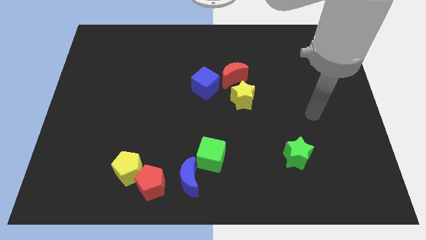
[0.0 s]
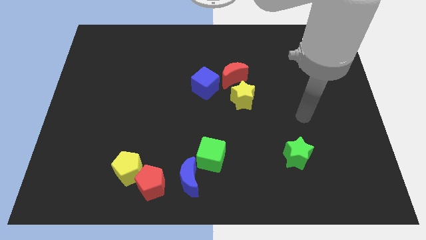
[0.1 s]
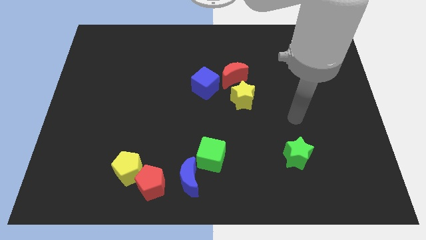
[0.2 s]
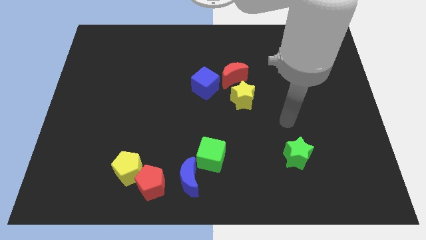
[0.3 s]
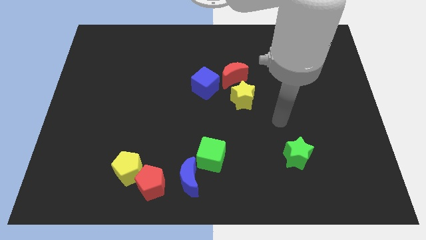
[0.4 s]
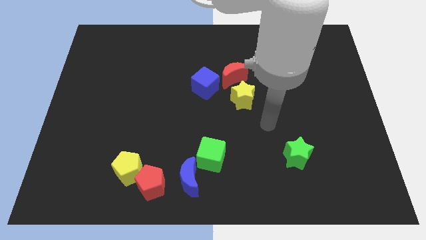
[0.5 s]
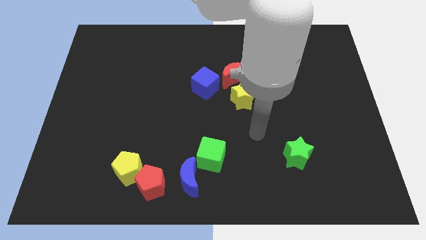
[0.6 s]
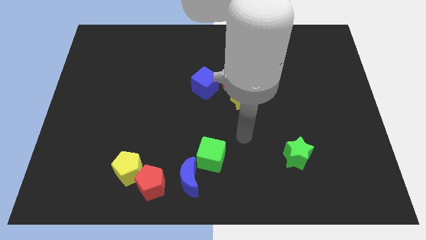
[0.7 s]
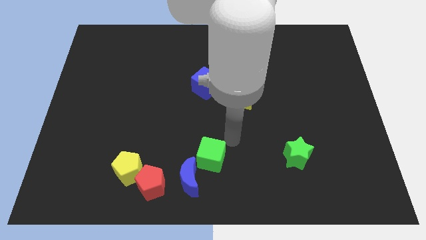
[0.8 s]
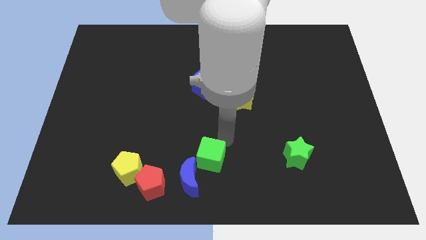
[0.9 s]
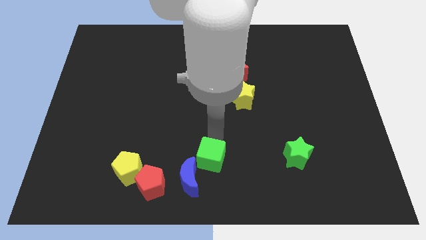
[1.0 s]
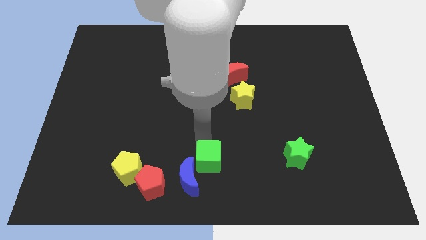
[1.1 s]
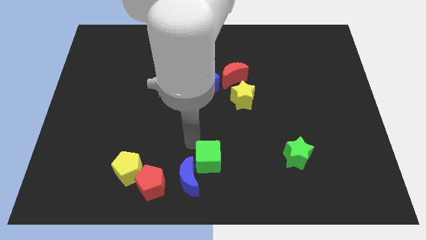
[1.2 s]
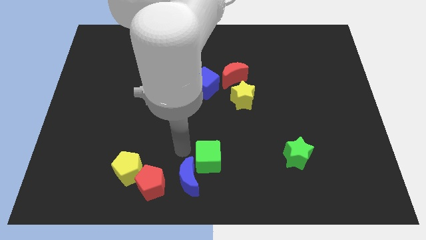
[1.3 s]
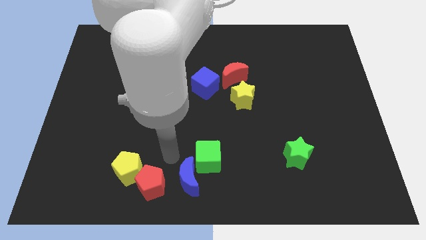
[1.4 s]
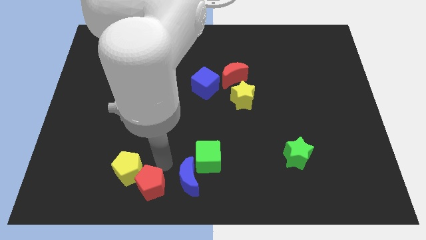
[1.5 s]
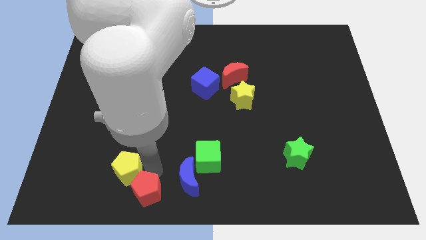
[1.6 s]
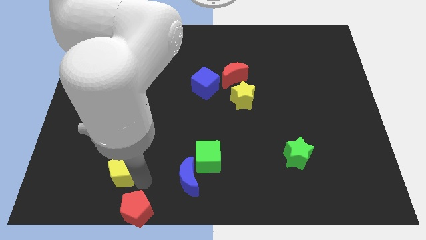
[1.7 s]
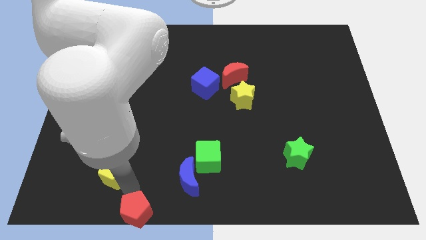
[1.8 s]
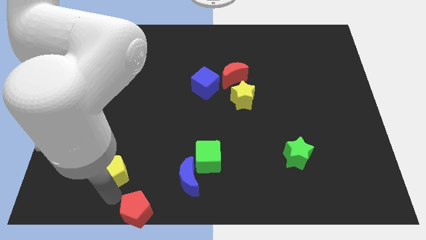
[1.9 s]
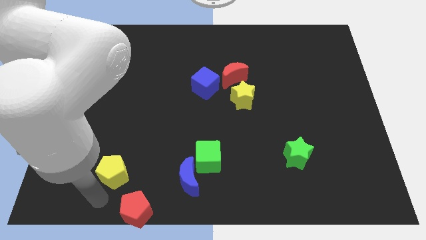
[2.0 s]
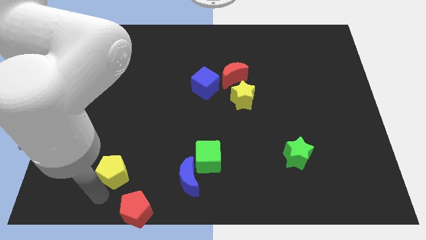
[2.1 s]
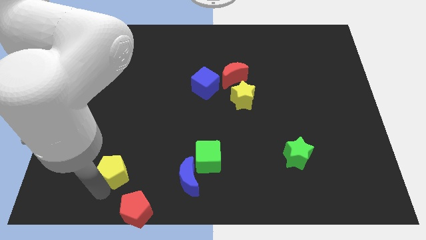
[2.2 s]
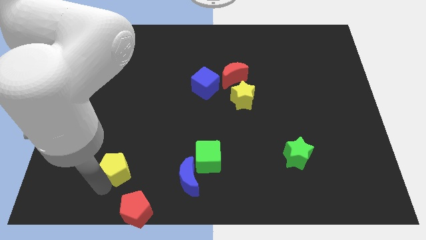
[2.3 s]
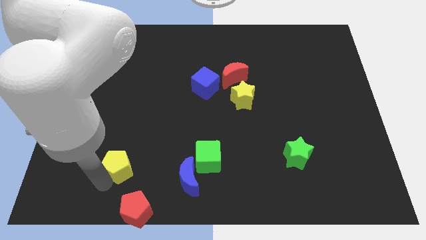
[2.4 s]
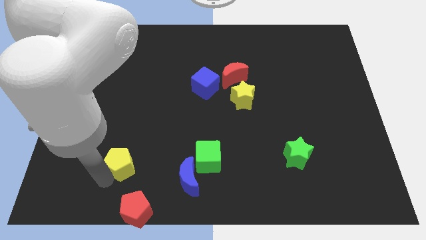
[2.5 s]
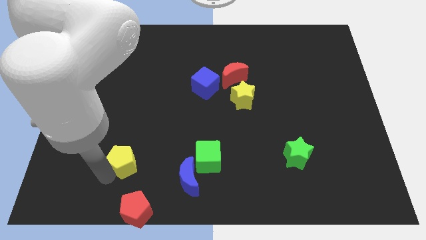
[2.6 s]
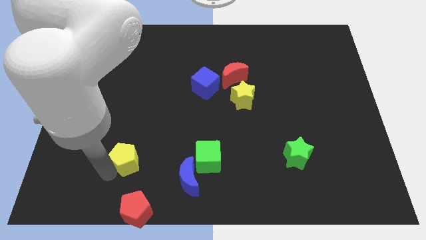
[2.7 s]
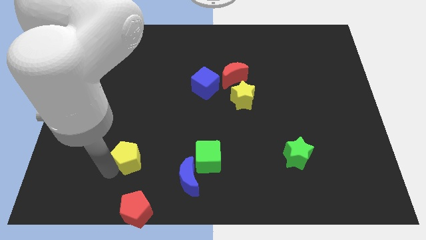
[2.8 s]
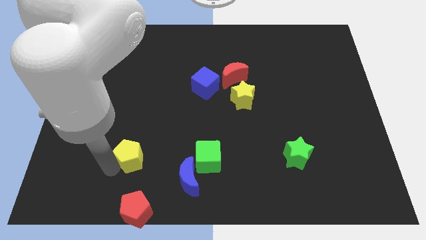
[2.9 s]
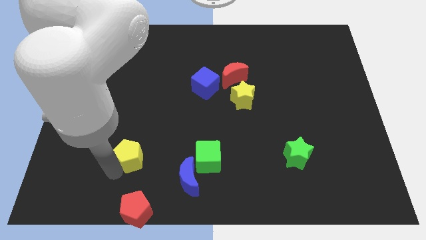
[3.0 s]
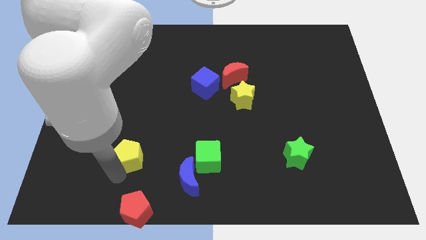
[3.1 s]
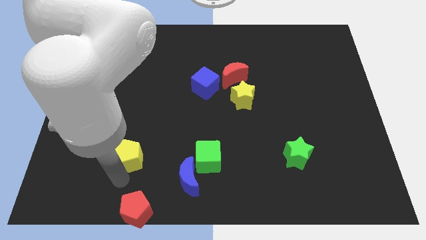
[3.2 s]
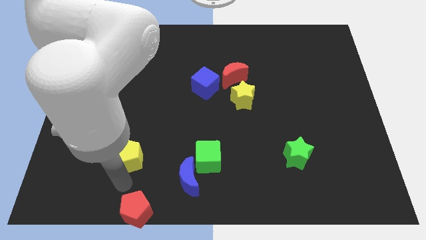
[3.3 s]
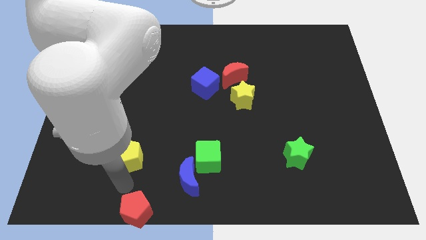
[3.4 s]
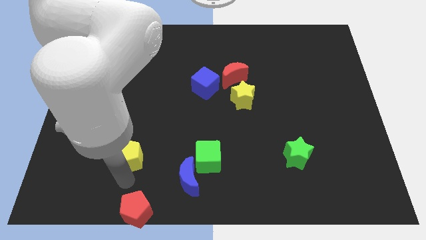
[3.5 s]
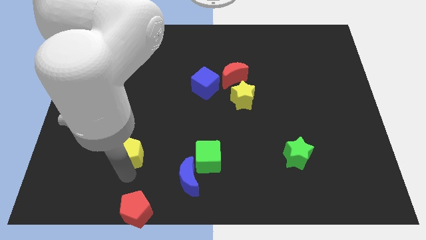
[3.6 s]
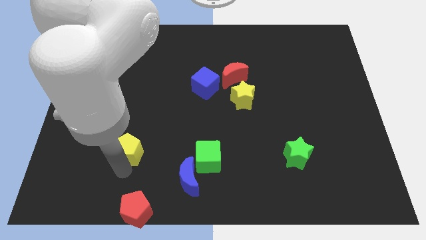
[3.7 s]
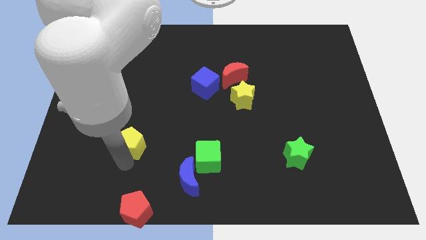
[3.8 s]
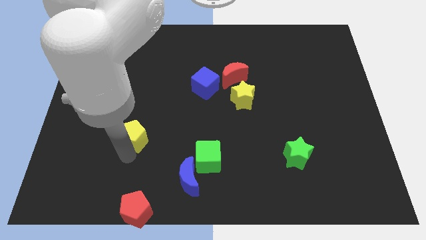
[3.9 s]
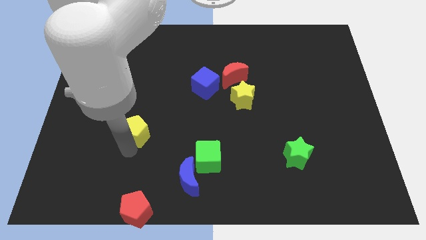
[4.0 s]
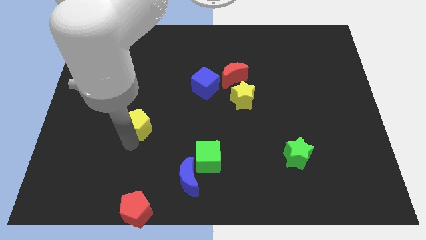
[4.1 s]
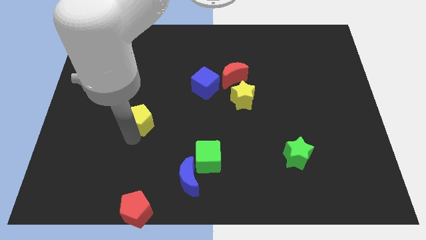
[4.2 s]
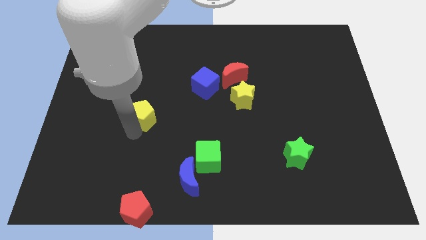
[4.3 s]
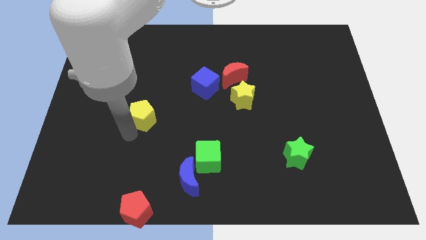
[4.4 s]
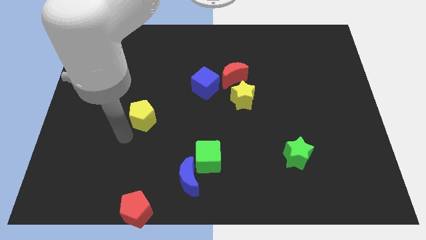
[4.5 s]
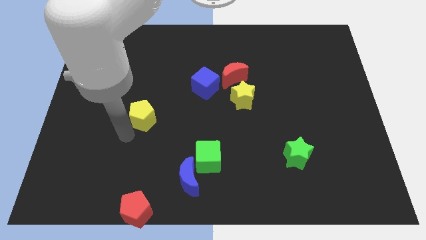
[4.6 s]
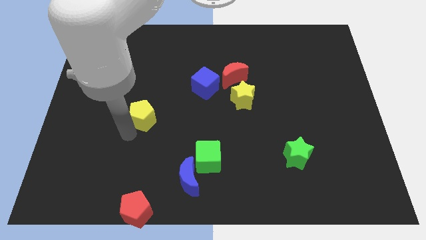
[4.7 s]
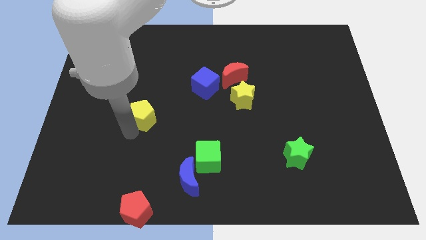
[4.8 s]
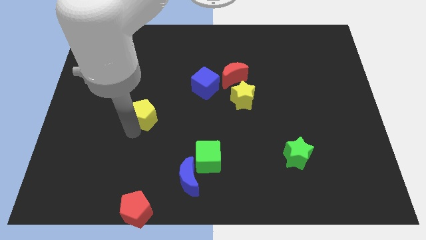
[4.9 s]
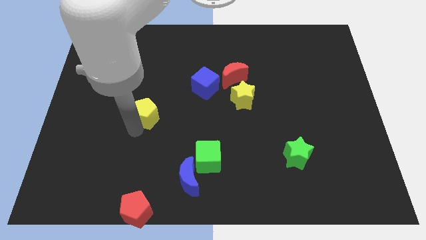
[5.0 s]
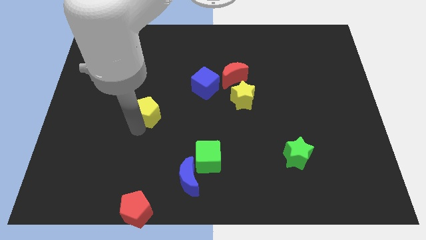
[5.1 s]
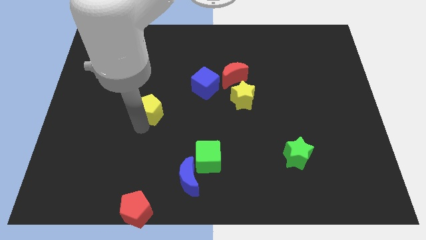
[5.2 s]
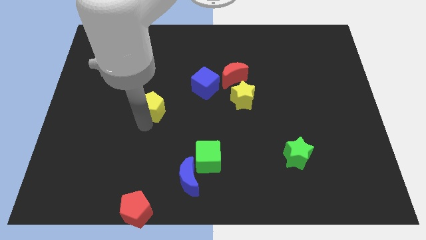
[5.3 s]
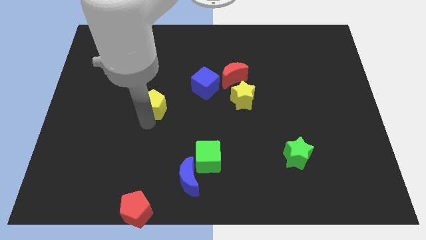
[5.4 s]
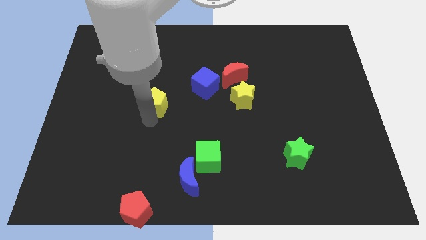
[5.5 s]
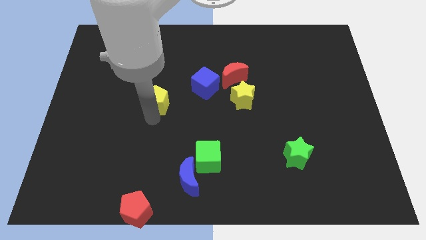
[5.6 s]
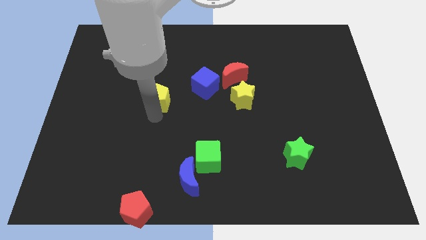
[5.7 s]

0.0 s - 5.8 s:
push the yellow pentagon left of the blue cube
